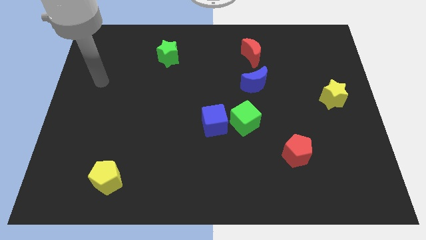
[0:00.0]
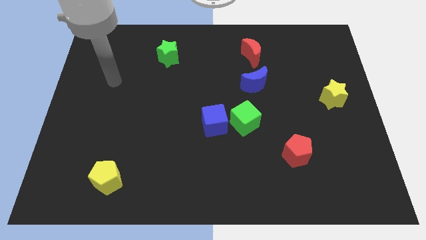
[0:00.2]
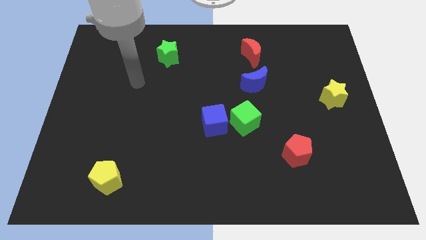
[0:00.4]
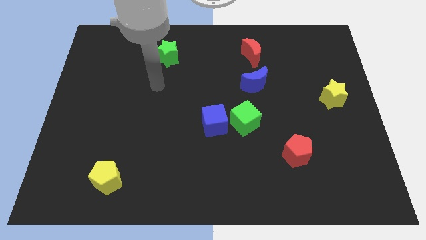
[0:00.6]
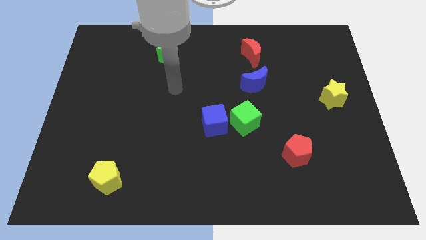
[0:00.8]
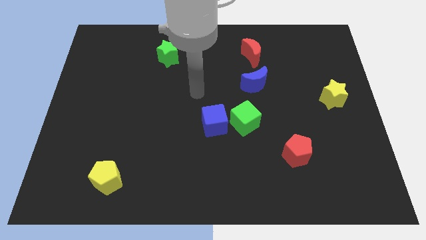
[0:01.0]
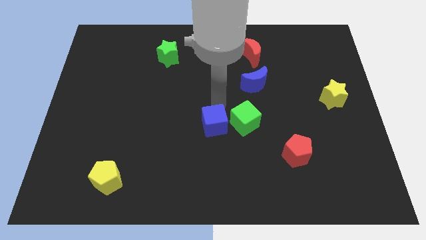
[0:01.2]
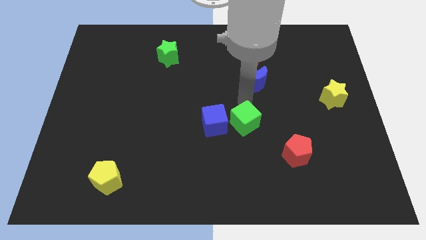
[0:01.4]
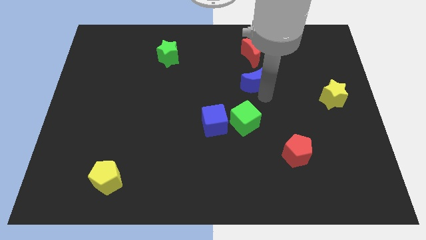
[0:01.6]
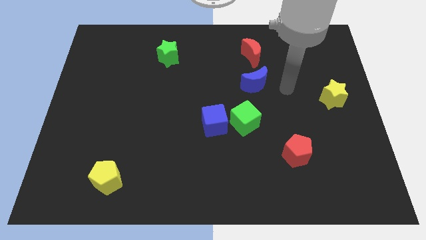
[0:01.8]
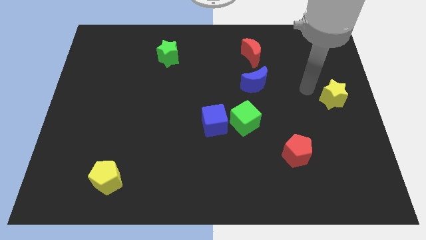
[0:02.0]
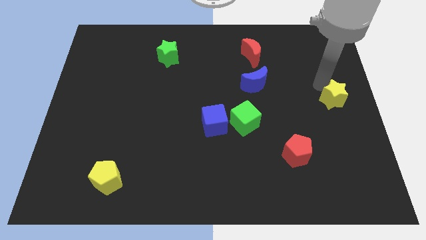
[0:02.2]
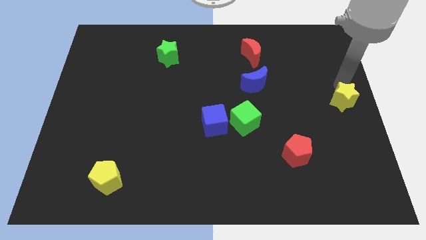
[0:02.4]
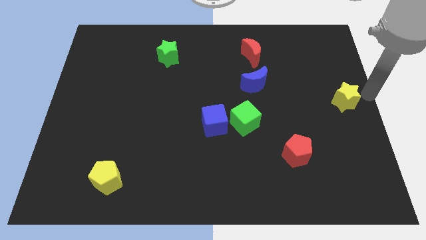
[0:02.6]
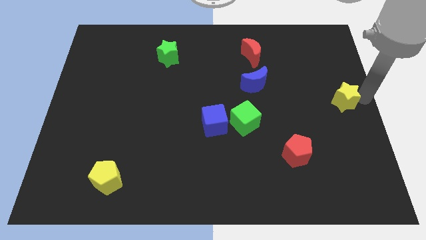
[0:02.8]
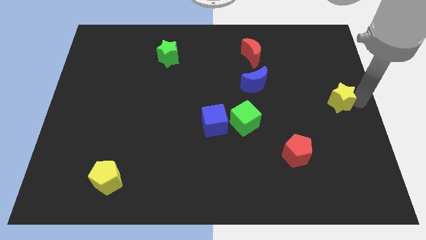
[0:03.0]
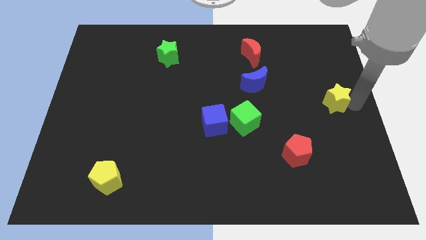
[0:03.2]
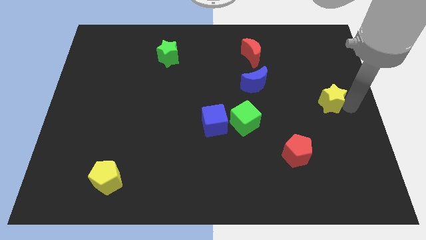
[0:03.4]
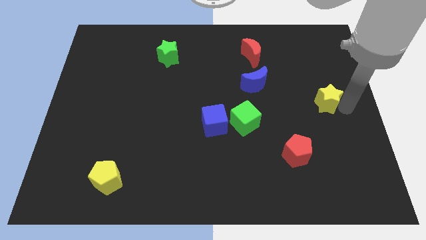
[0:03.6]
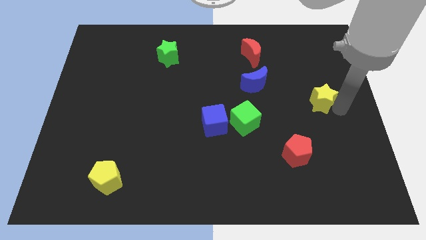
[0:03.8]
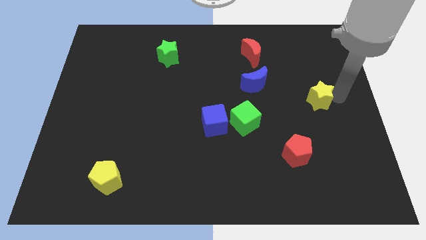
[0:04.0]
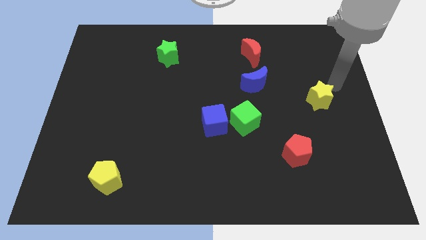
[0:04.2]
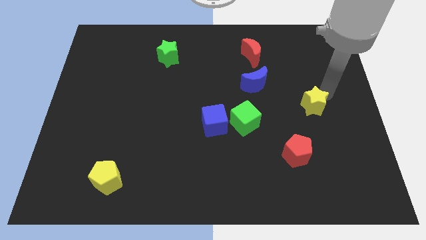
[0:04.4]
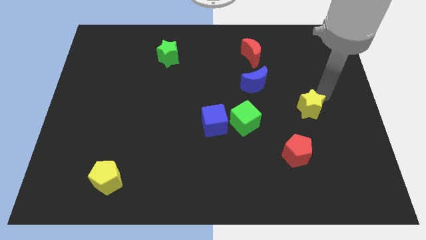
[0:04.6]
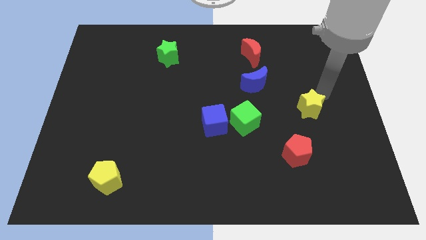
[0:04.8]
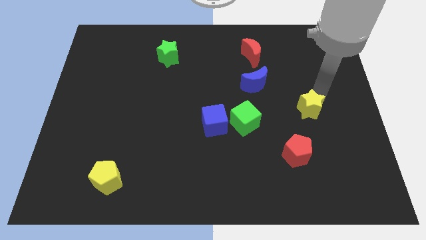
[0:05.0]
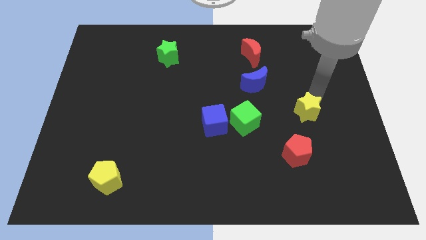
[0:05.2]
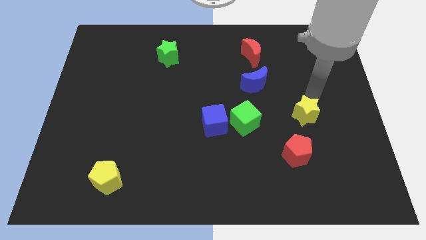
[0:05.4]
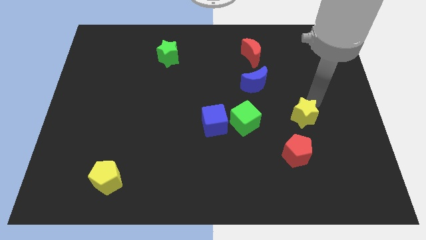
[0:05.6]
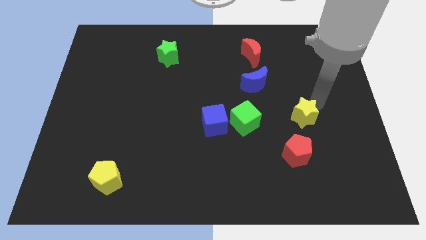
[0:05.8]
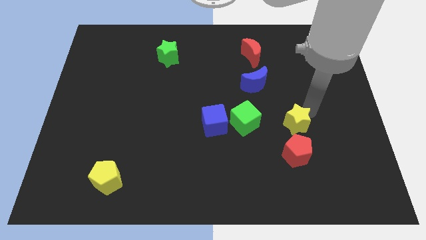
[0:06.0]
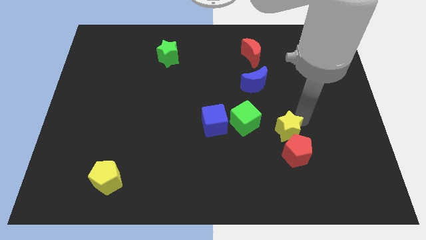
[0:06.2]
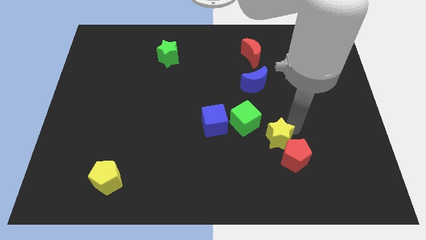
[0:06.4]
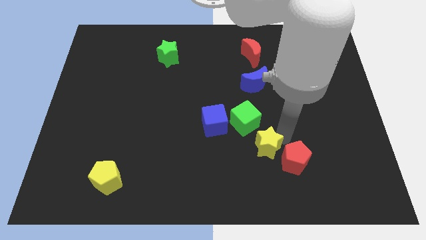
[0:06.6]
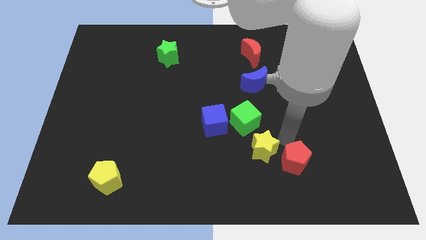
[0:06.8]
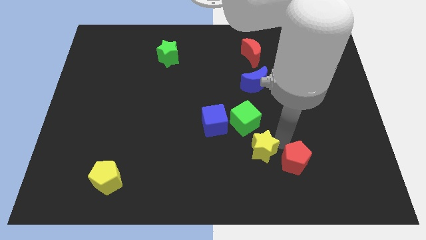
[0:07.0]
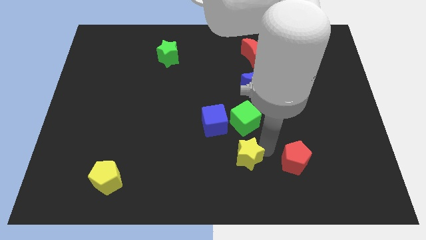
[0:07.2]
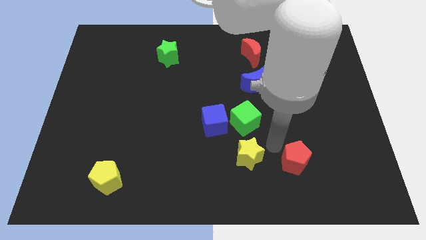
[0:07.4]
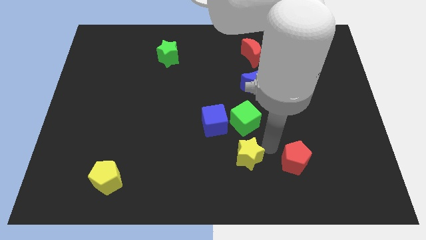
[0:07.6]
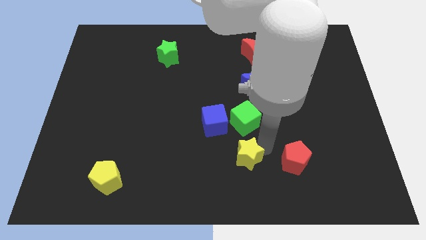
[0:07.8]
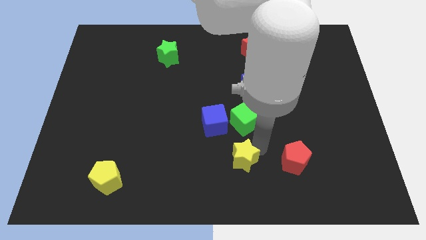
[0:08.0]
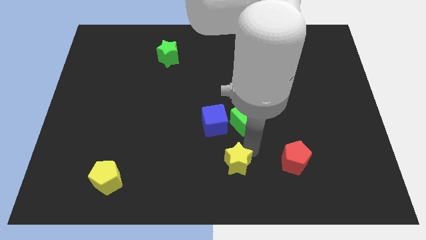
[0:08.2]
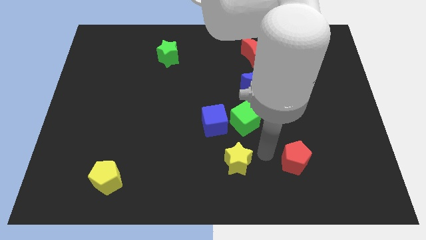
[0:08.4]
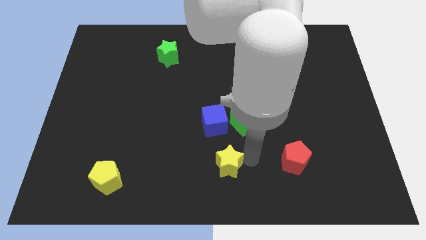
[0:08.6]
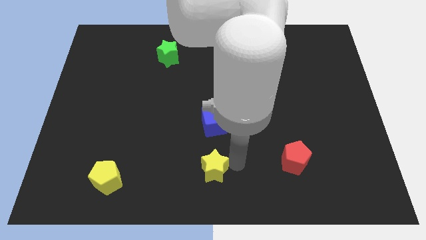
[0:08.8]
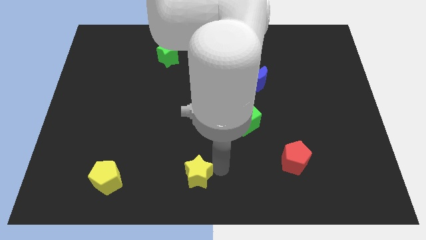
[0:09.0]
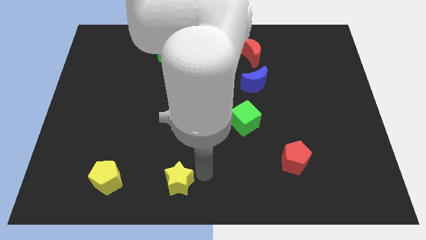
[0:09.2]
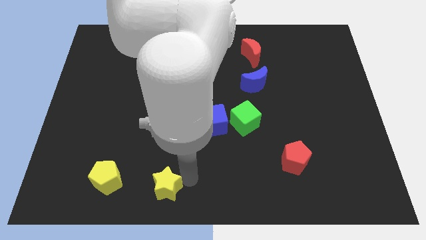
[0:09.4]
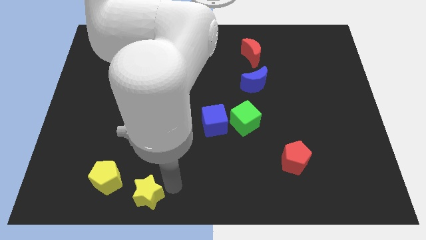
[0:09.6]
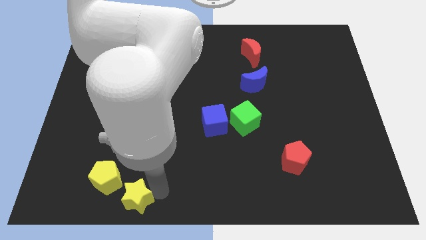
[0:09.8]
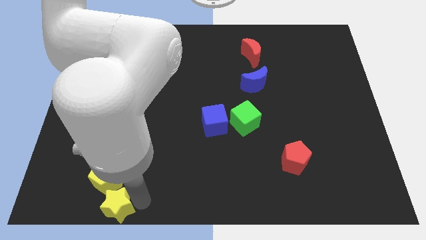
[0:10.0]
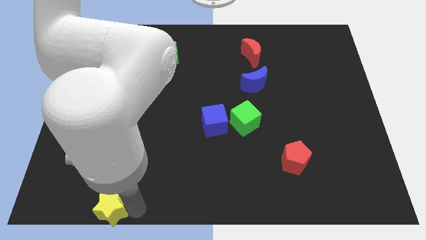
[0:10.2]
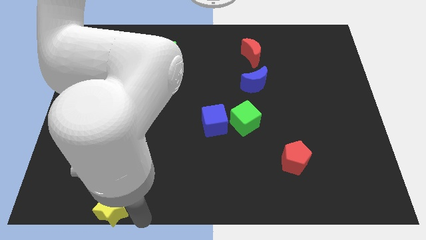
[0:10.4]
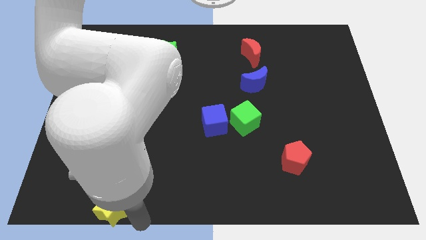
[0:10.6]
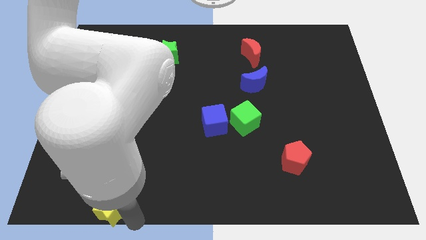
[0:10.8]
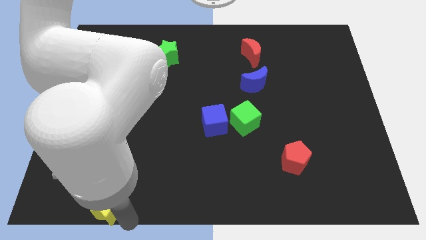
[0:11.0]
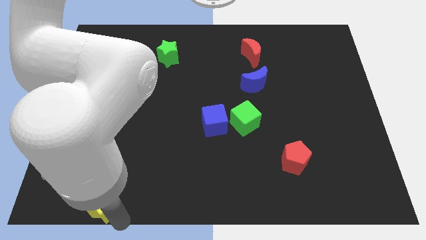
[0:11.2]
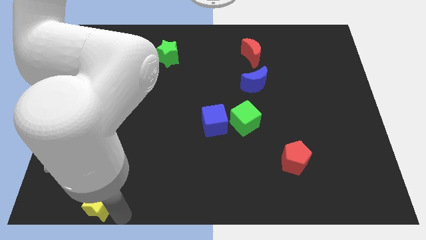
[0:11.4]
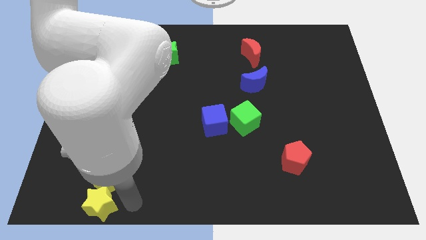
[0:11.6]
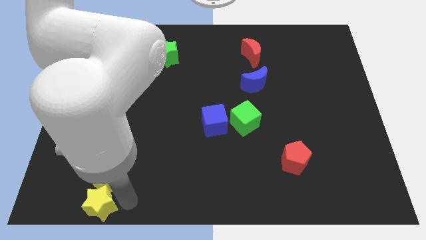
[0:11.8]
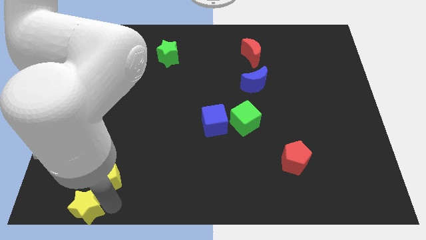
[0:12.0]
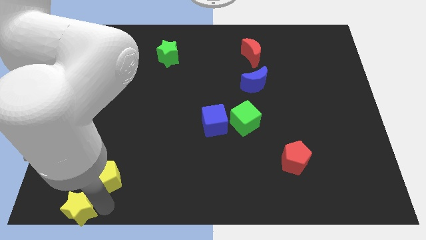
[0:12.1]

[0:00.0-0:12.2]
push the yellow star to the bottom left corner
